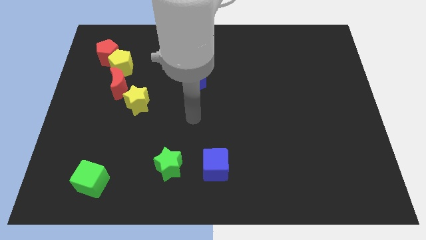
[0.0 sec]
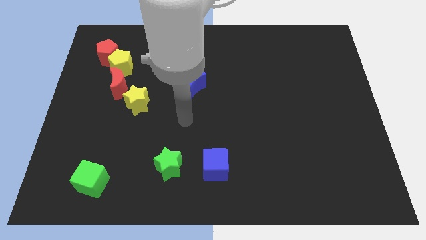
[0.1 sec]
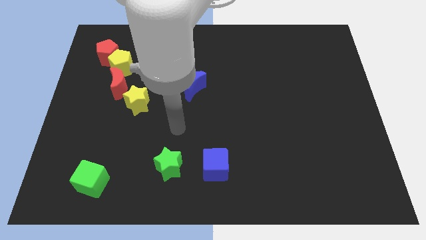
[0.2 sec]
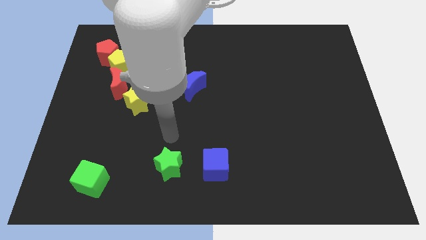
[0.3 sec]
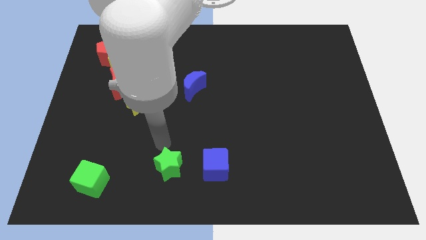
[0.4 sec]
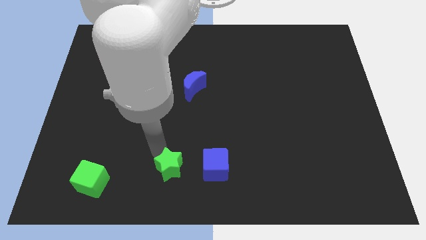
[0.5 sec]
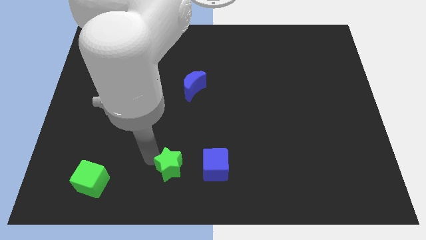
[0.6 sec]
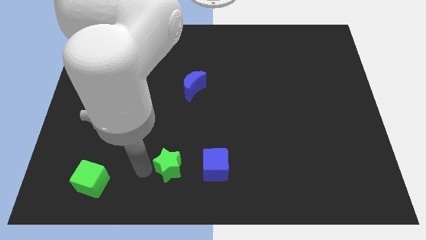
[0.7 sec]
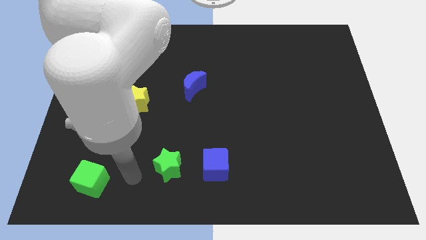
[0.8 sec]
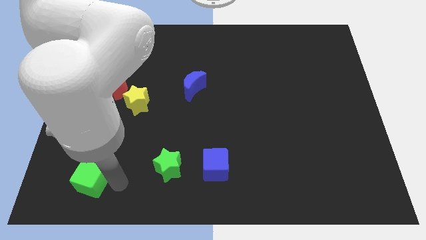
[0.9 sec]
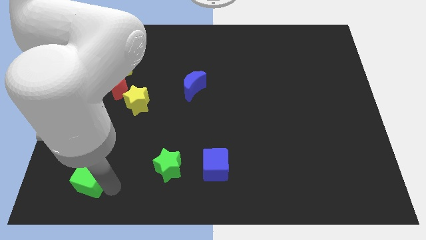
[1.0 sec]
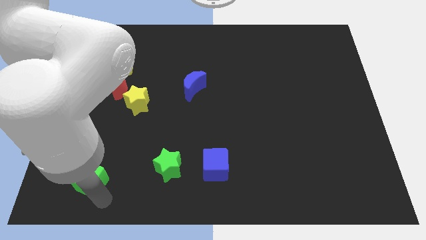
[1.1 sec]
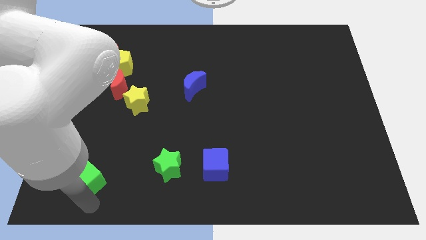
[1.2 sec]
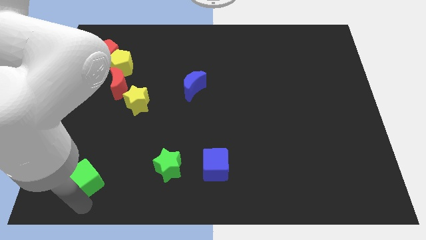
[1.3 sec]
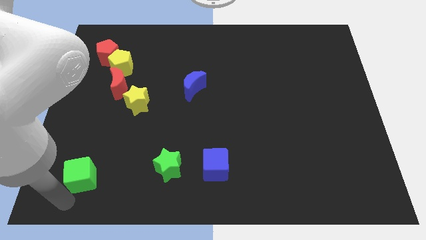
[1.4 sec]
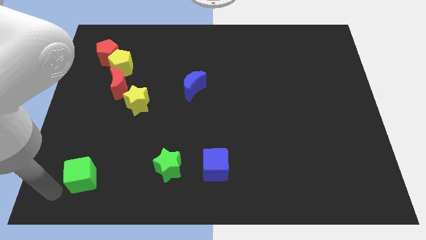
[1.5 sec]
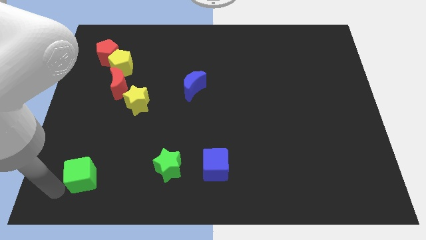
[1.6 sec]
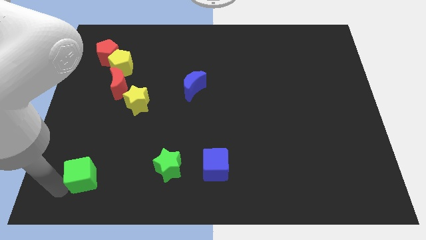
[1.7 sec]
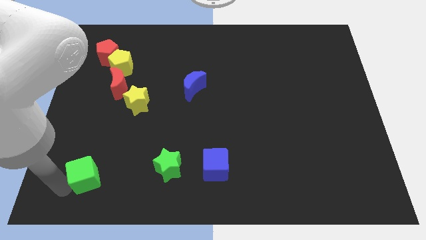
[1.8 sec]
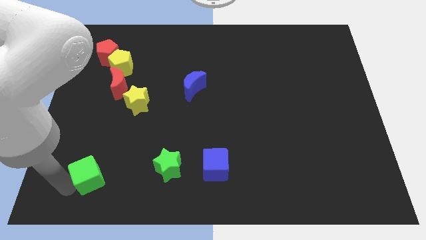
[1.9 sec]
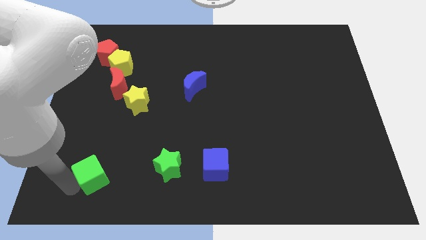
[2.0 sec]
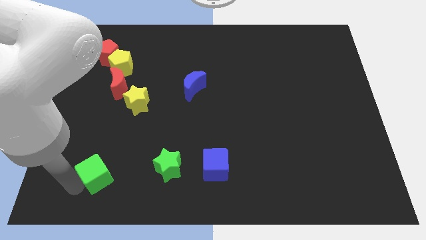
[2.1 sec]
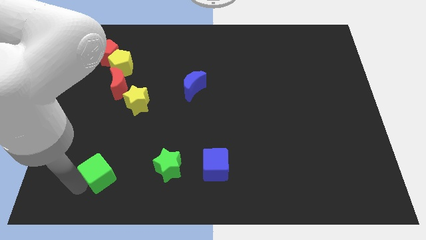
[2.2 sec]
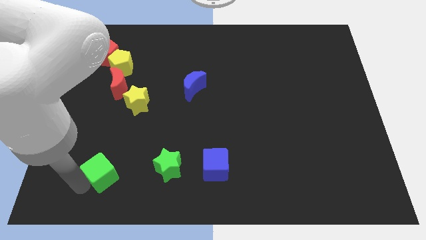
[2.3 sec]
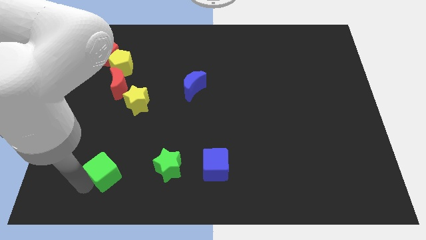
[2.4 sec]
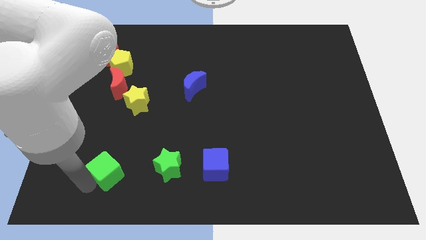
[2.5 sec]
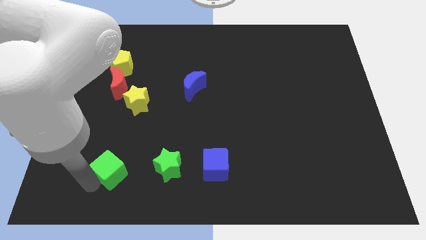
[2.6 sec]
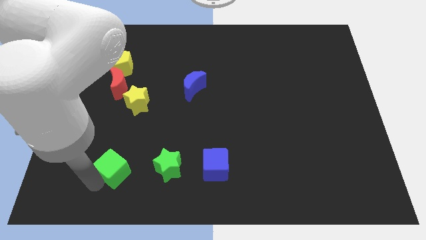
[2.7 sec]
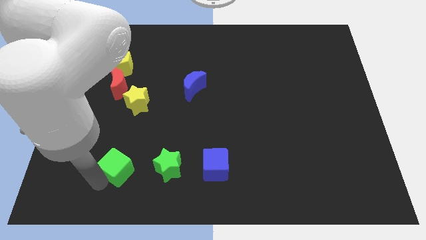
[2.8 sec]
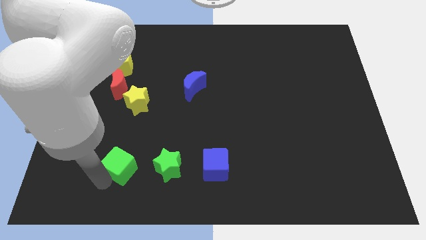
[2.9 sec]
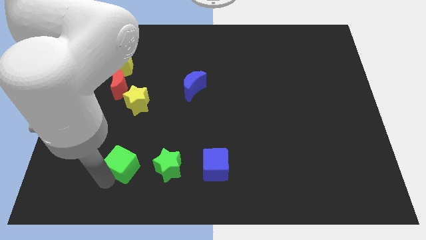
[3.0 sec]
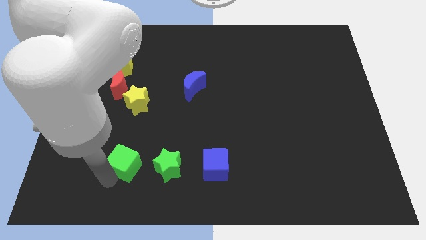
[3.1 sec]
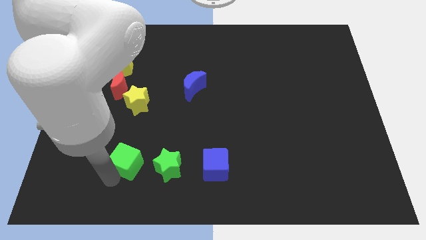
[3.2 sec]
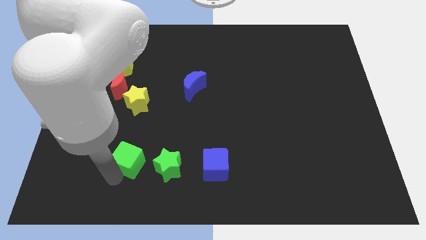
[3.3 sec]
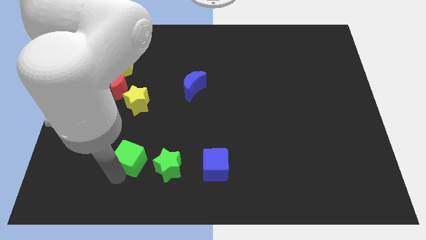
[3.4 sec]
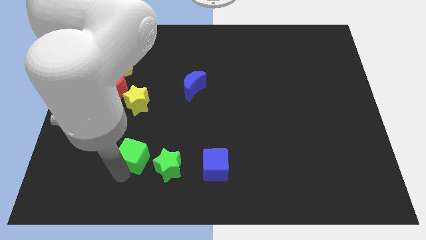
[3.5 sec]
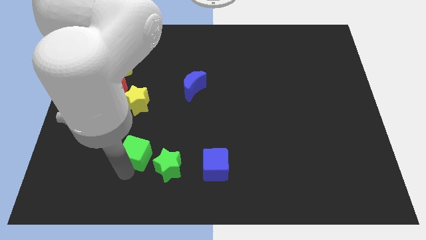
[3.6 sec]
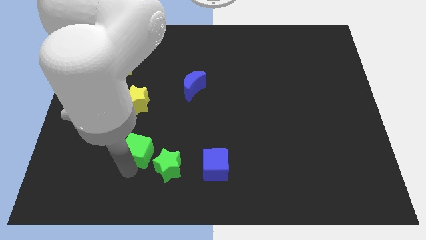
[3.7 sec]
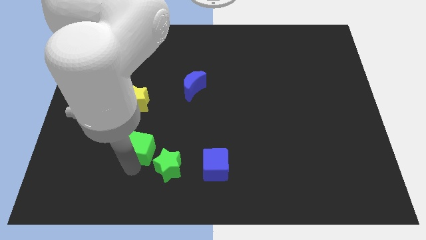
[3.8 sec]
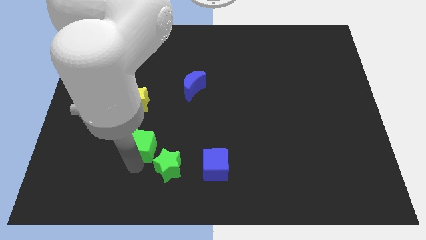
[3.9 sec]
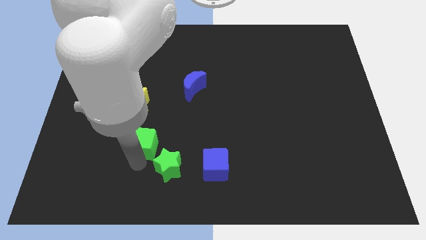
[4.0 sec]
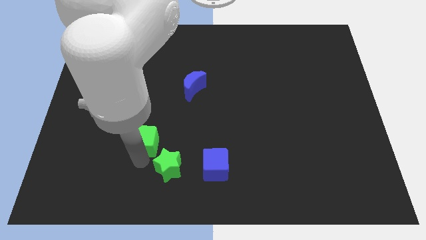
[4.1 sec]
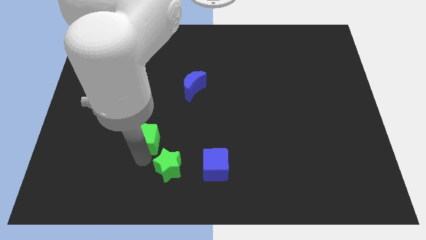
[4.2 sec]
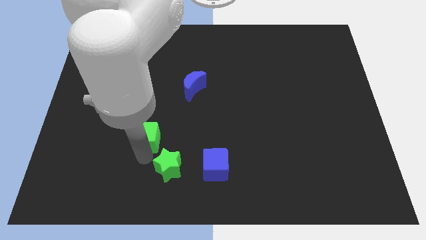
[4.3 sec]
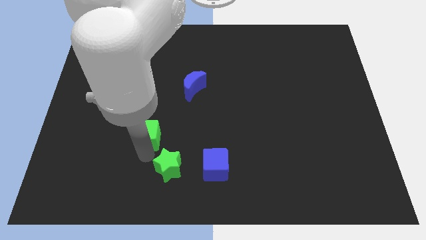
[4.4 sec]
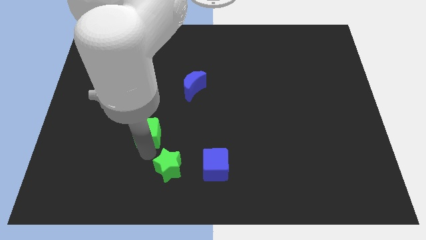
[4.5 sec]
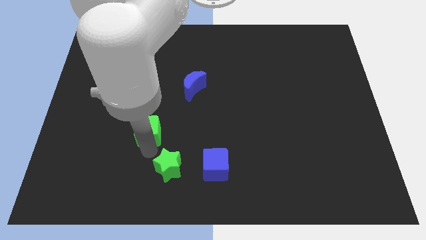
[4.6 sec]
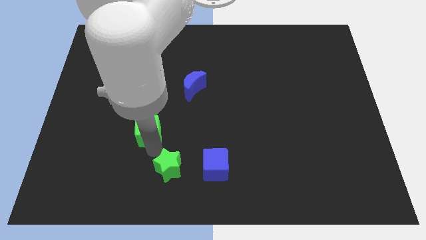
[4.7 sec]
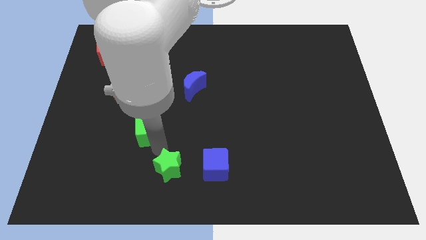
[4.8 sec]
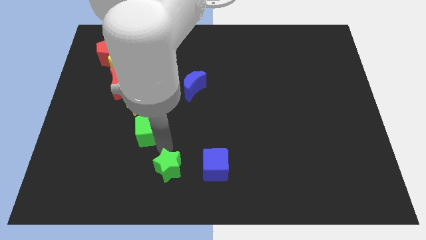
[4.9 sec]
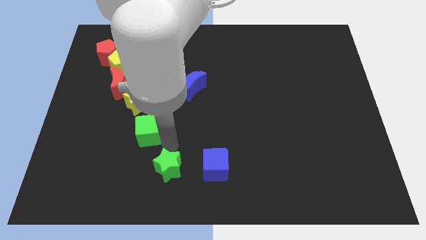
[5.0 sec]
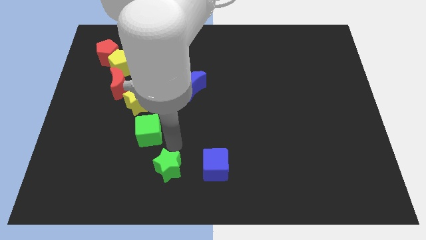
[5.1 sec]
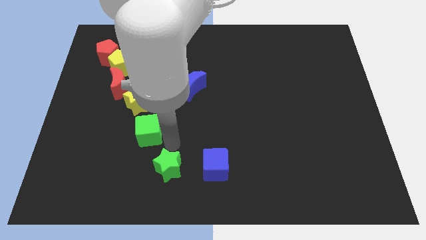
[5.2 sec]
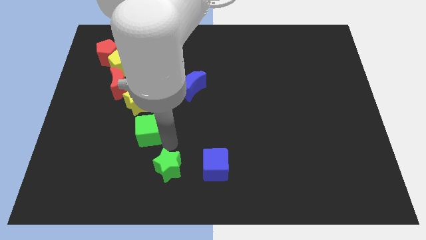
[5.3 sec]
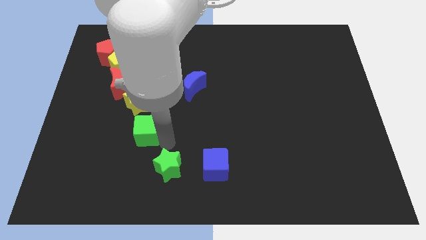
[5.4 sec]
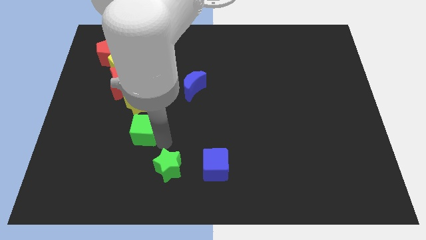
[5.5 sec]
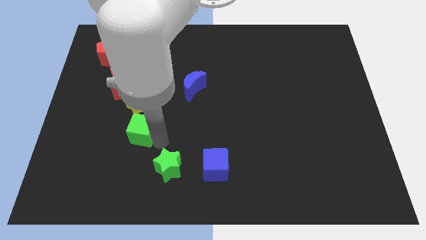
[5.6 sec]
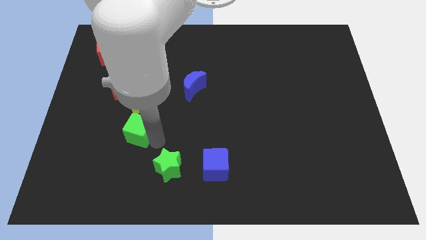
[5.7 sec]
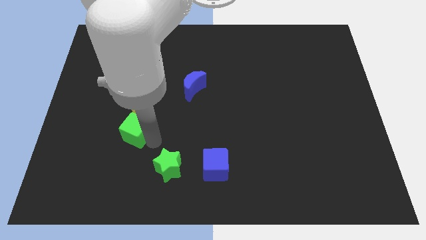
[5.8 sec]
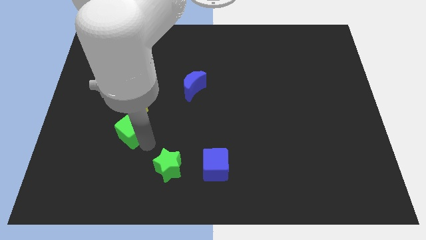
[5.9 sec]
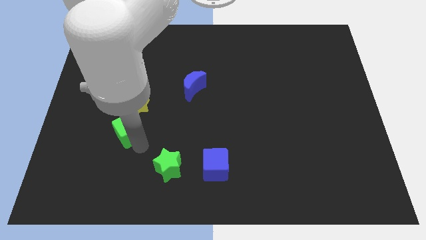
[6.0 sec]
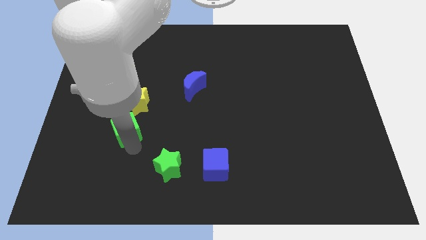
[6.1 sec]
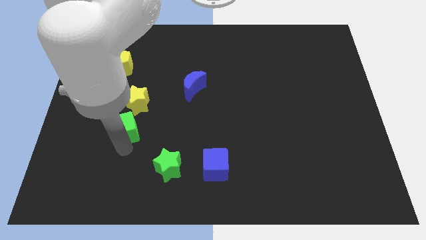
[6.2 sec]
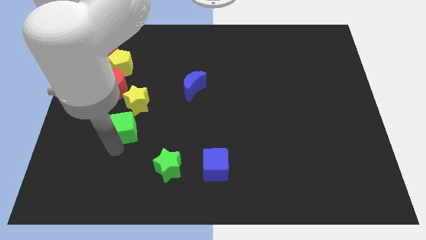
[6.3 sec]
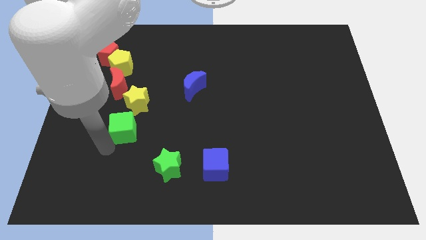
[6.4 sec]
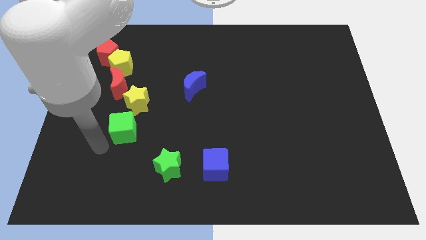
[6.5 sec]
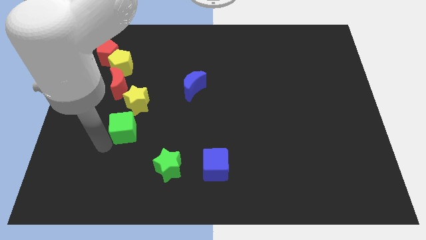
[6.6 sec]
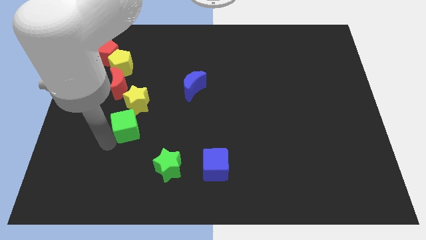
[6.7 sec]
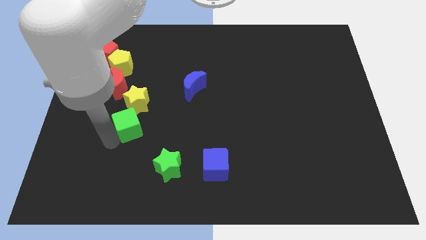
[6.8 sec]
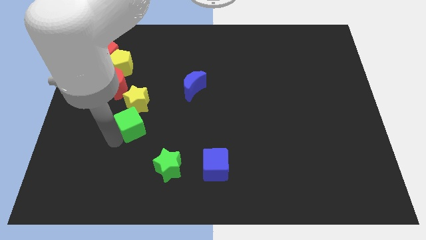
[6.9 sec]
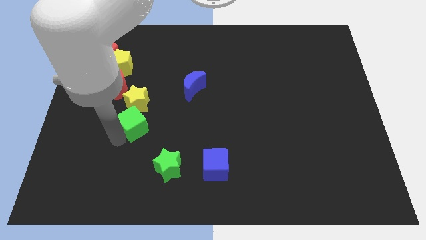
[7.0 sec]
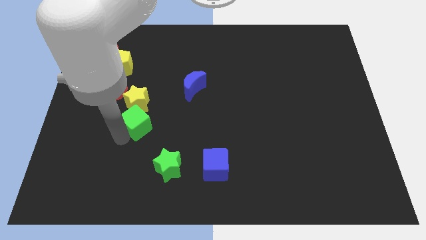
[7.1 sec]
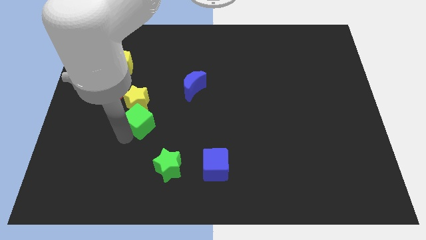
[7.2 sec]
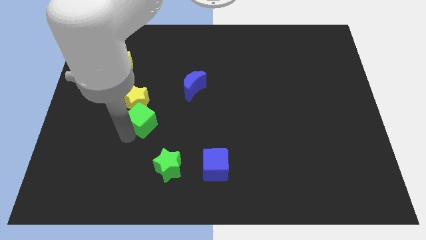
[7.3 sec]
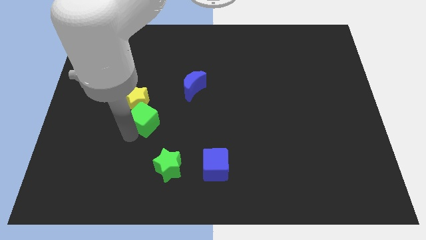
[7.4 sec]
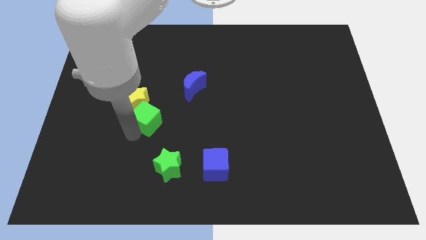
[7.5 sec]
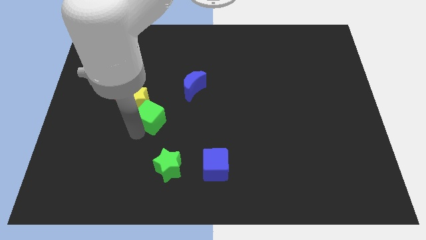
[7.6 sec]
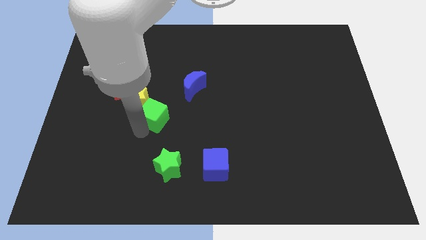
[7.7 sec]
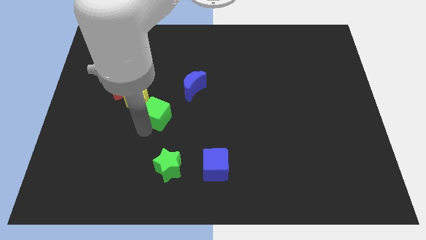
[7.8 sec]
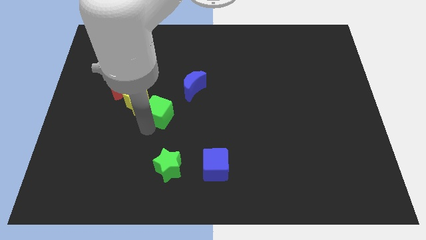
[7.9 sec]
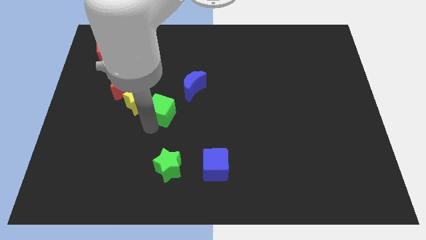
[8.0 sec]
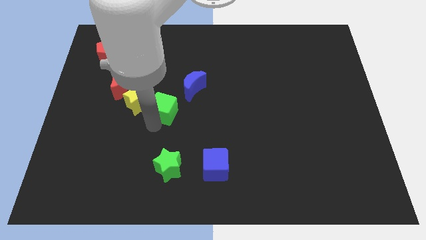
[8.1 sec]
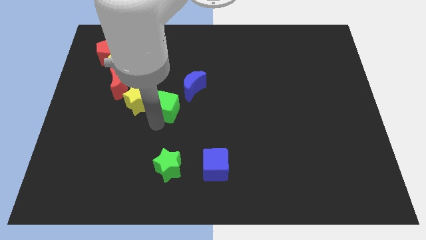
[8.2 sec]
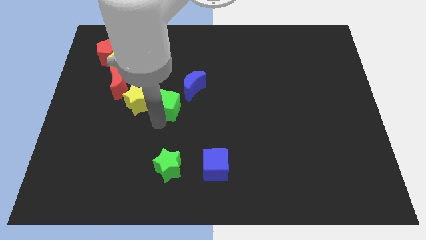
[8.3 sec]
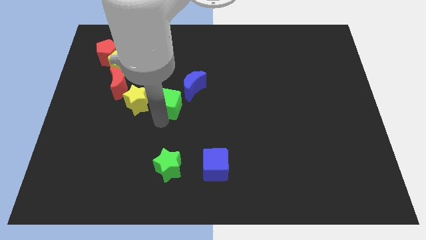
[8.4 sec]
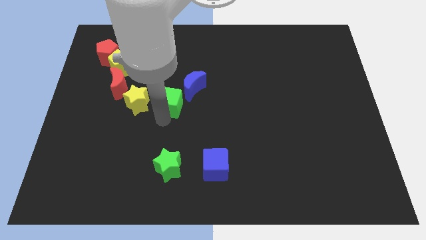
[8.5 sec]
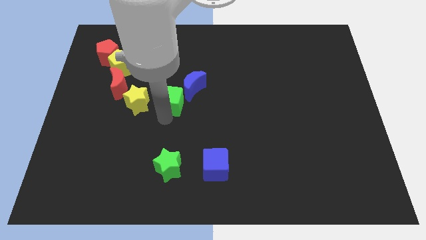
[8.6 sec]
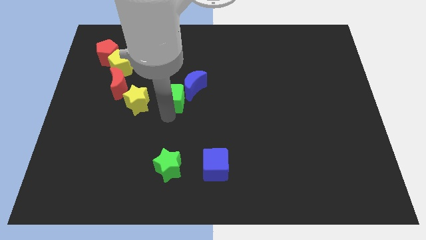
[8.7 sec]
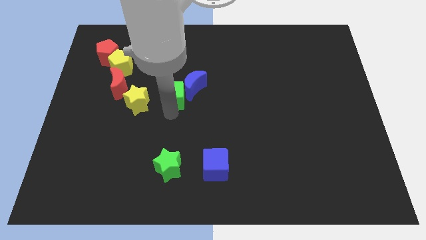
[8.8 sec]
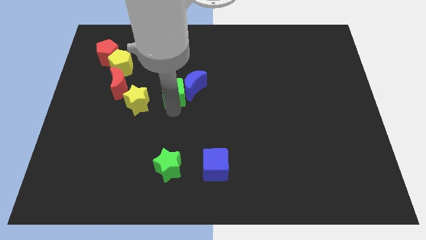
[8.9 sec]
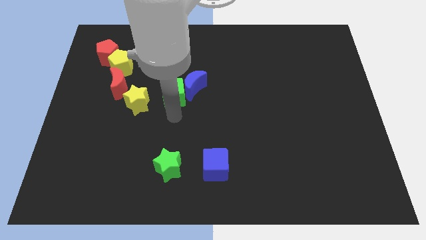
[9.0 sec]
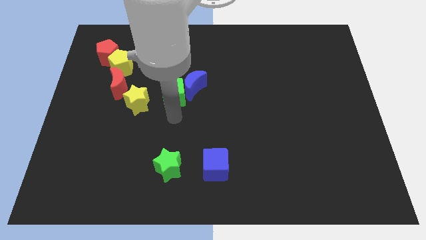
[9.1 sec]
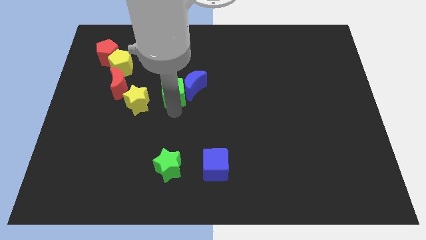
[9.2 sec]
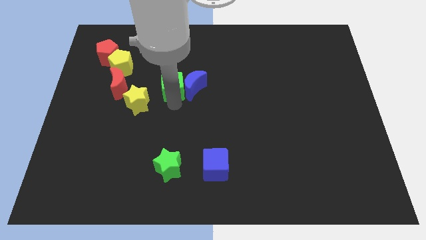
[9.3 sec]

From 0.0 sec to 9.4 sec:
put the green cube diagonally up and to the left of the blue moon
